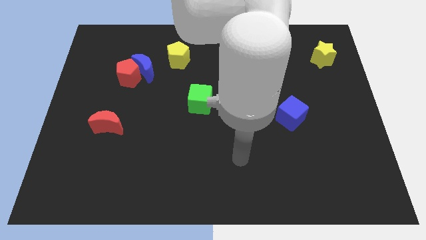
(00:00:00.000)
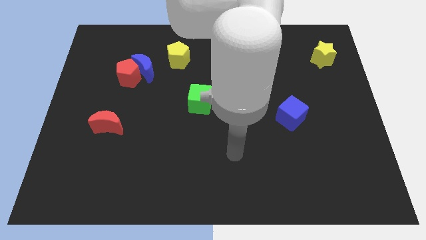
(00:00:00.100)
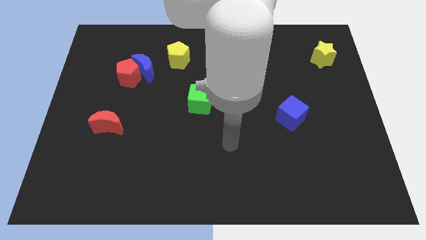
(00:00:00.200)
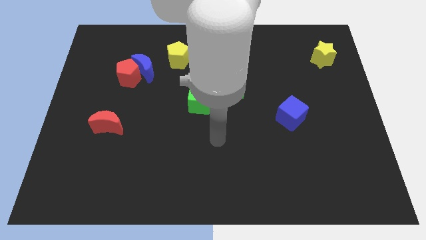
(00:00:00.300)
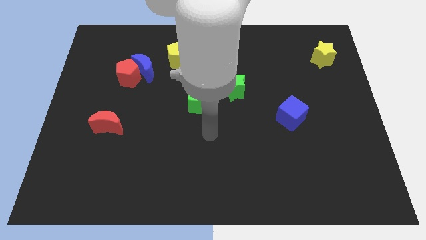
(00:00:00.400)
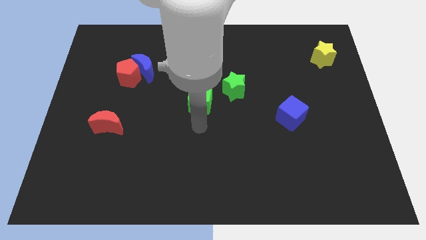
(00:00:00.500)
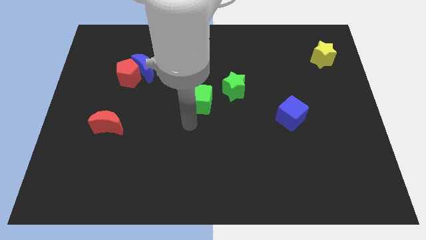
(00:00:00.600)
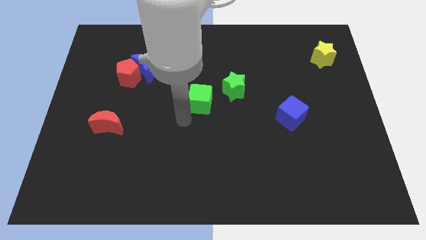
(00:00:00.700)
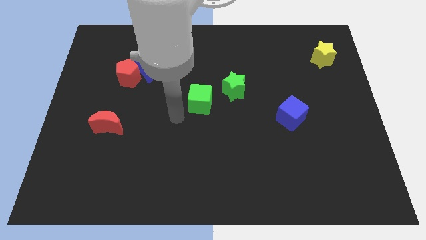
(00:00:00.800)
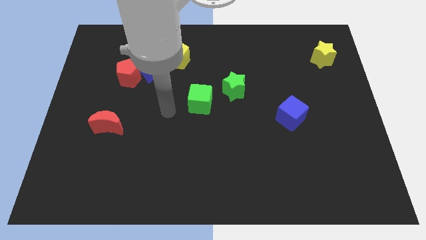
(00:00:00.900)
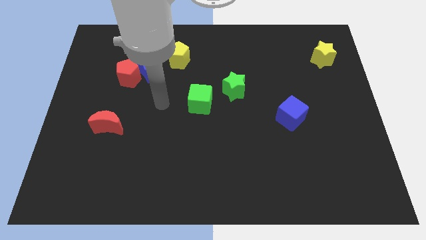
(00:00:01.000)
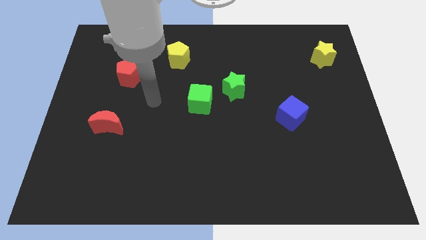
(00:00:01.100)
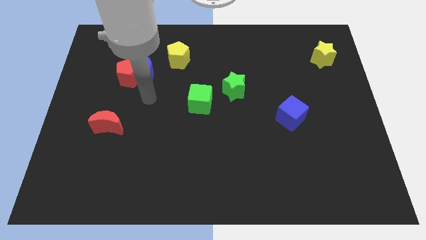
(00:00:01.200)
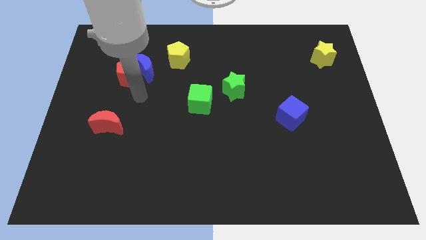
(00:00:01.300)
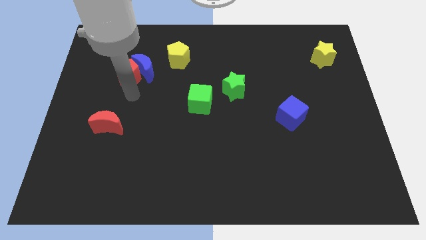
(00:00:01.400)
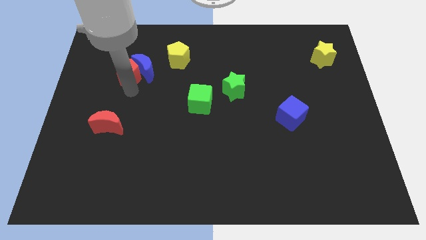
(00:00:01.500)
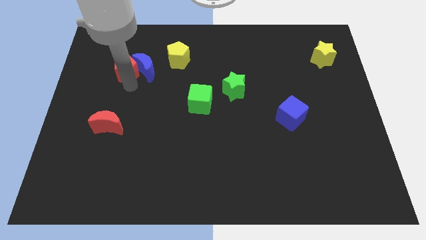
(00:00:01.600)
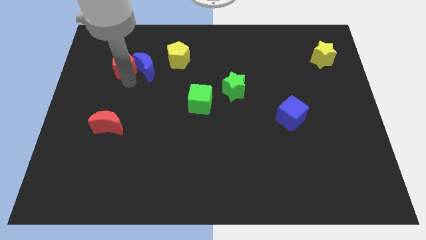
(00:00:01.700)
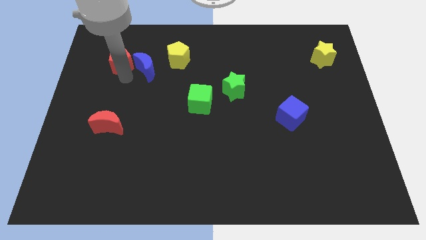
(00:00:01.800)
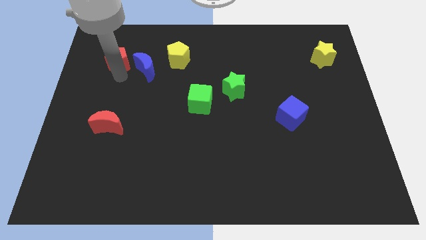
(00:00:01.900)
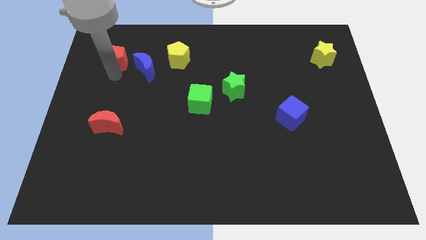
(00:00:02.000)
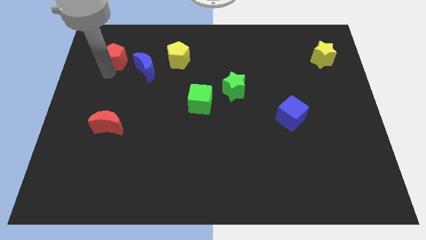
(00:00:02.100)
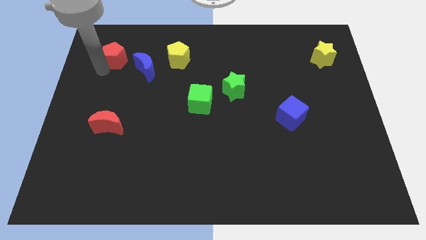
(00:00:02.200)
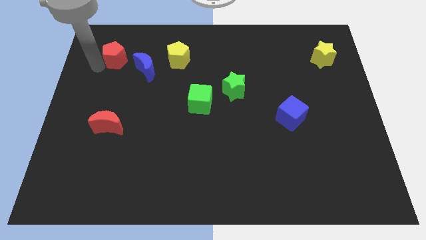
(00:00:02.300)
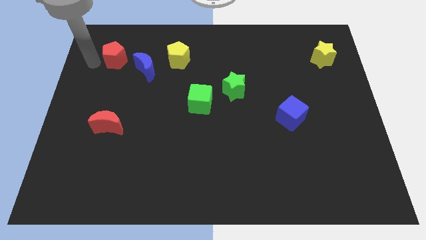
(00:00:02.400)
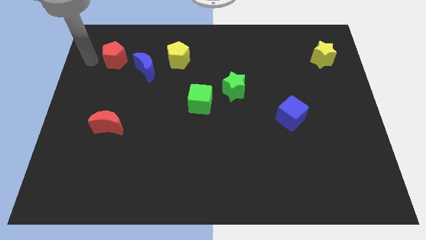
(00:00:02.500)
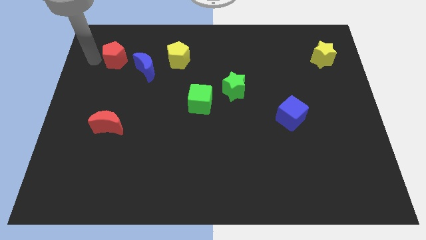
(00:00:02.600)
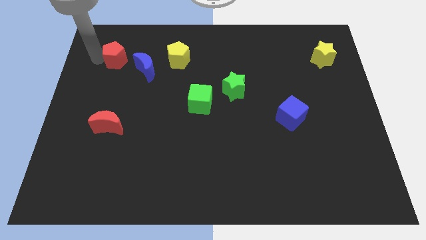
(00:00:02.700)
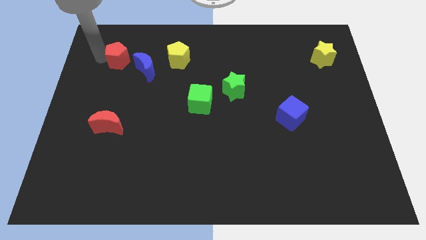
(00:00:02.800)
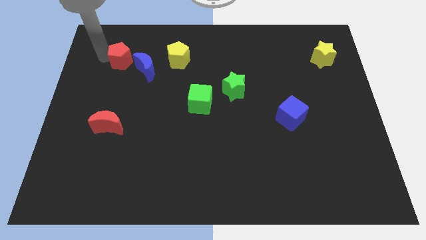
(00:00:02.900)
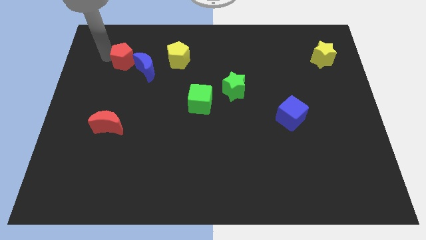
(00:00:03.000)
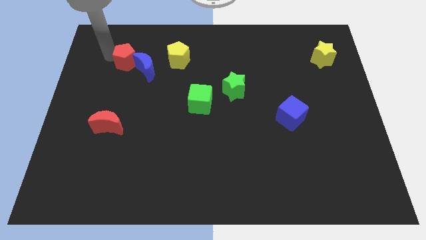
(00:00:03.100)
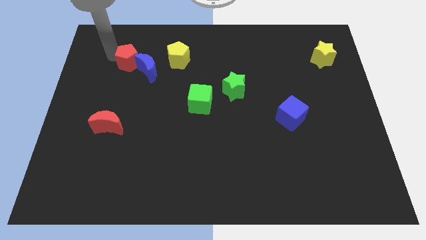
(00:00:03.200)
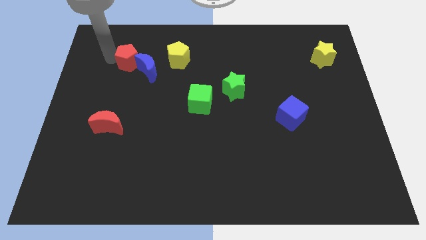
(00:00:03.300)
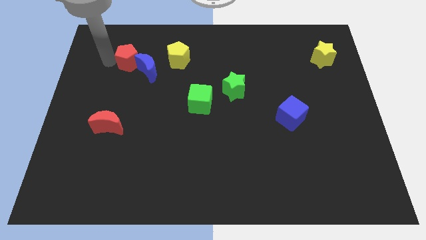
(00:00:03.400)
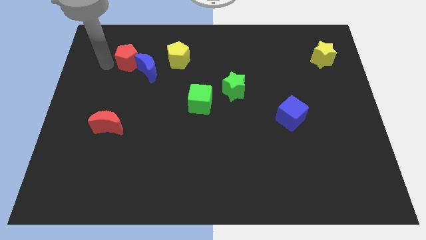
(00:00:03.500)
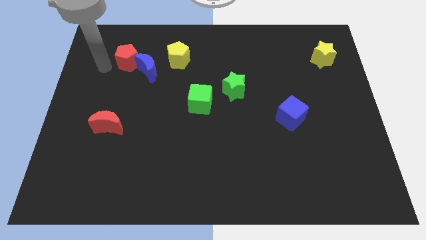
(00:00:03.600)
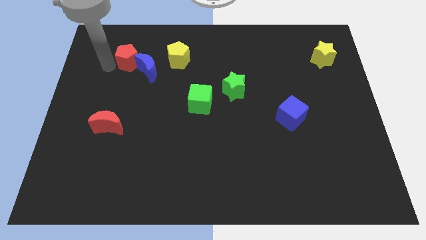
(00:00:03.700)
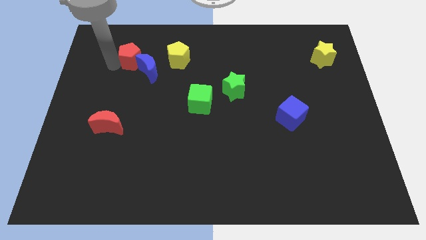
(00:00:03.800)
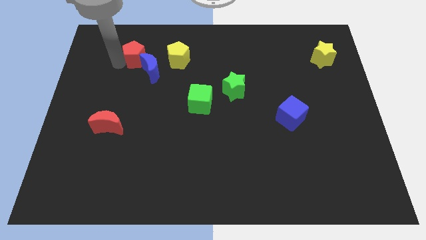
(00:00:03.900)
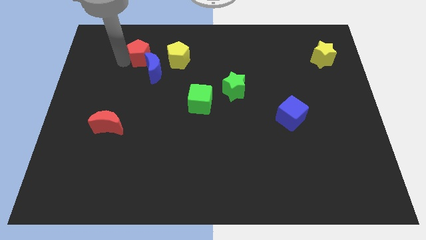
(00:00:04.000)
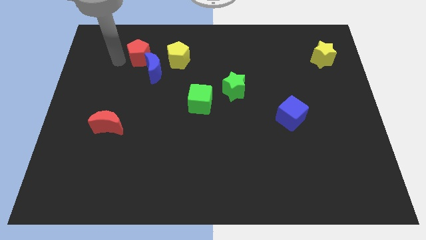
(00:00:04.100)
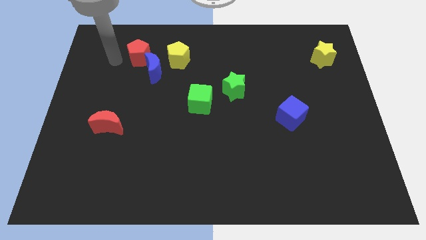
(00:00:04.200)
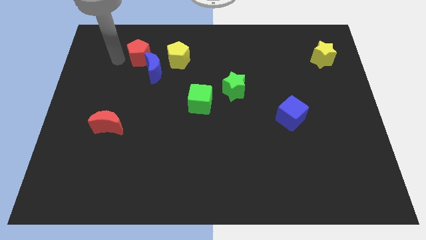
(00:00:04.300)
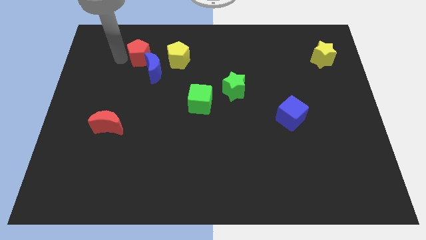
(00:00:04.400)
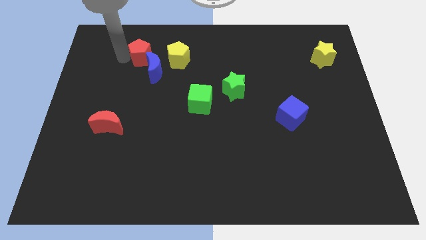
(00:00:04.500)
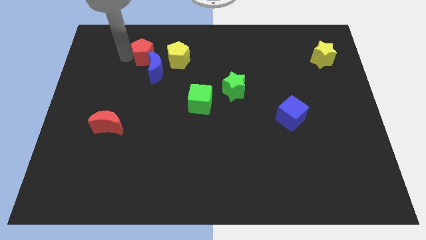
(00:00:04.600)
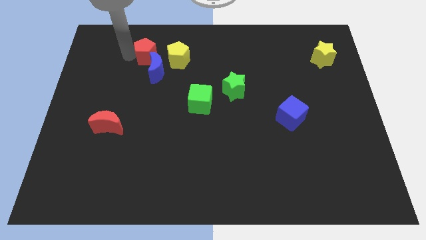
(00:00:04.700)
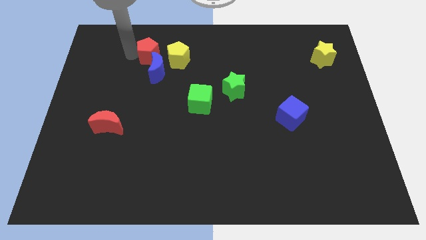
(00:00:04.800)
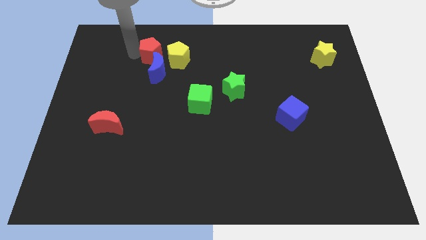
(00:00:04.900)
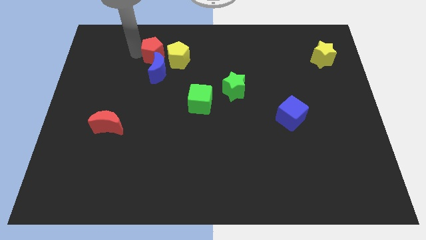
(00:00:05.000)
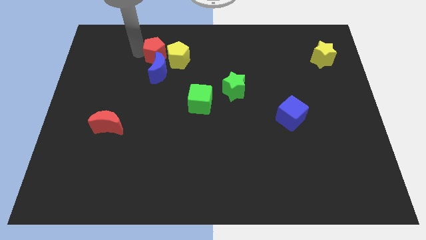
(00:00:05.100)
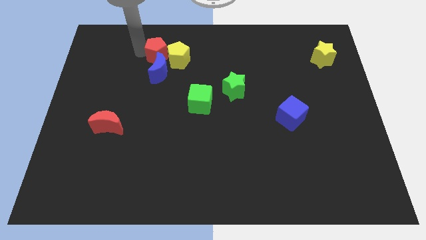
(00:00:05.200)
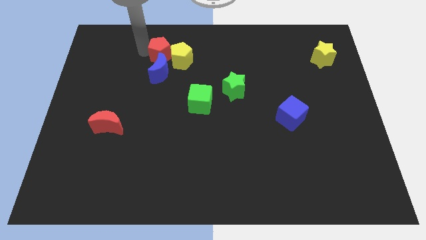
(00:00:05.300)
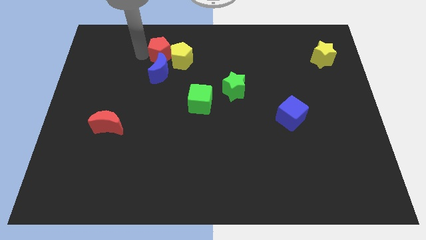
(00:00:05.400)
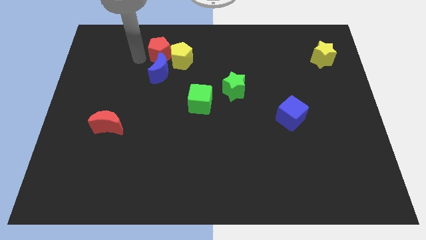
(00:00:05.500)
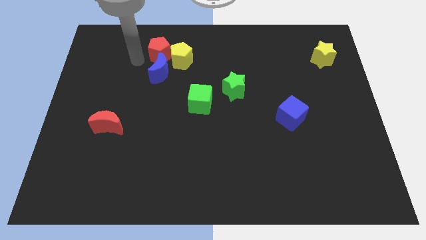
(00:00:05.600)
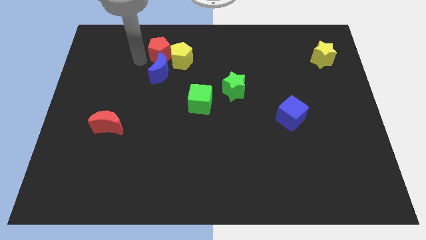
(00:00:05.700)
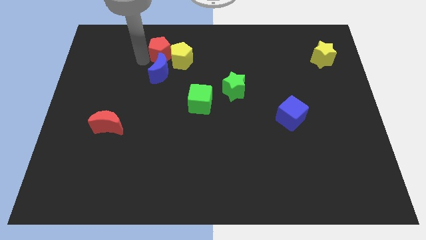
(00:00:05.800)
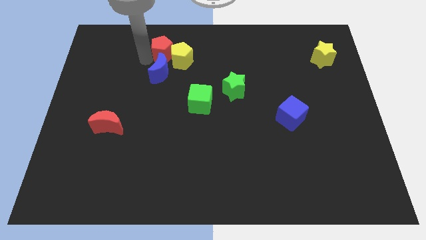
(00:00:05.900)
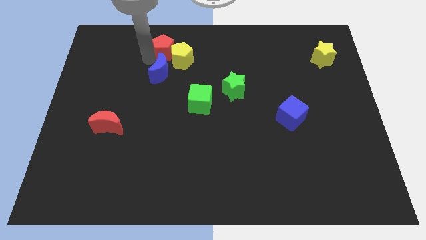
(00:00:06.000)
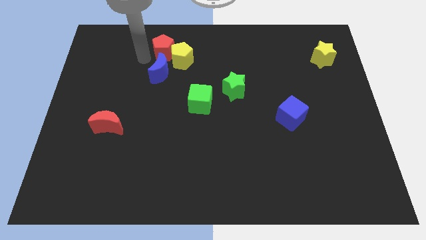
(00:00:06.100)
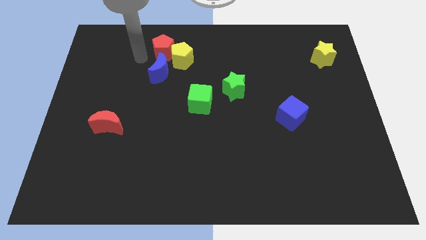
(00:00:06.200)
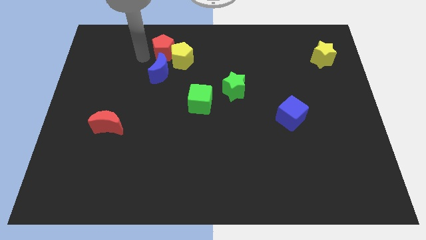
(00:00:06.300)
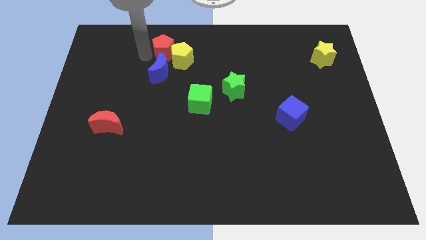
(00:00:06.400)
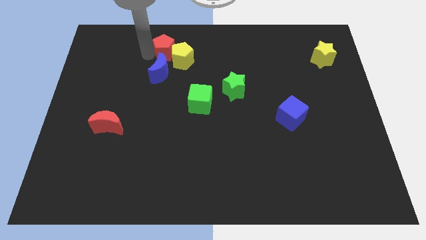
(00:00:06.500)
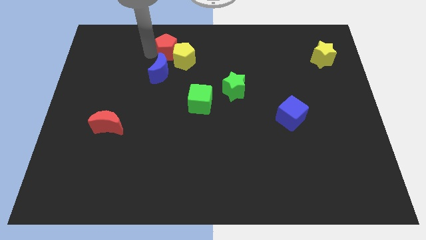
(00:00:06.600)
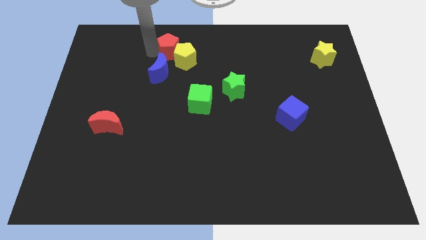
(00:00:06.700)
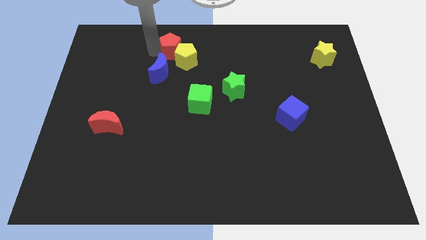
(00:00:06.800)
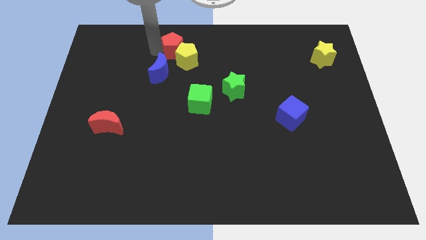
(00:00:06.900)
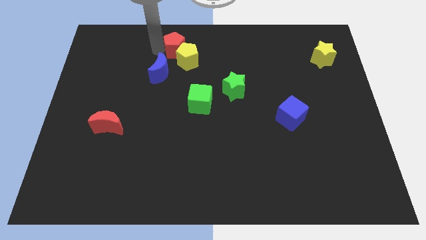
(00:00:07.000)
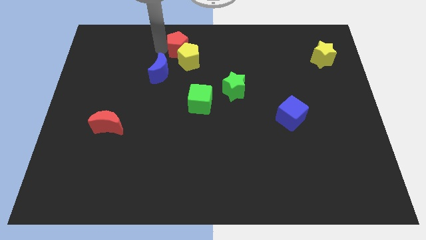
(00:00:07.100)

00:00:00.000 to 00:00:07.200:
put the red pentagon to the towards your base

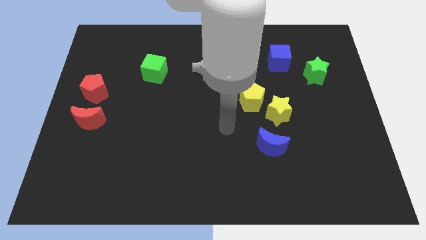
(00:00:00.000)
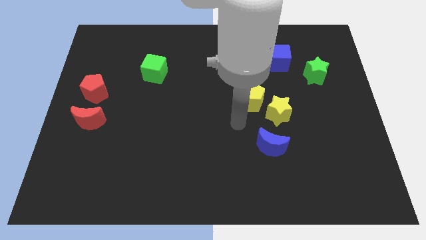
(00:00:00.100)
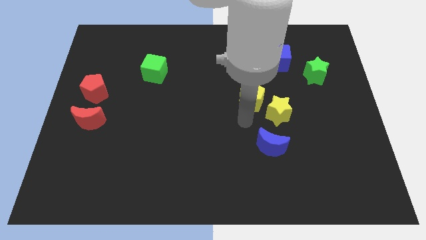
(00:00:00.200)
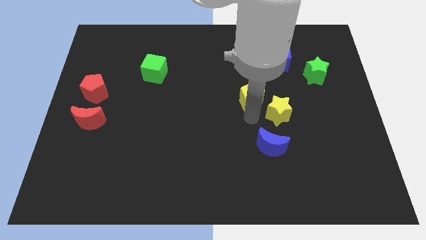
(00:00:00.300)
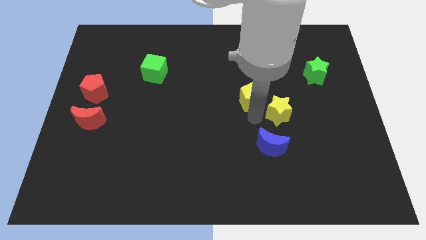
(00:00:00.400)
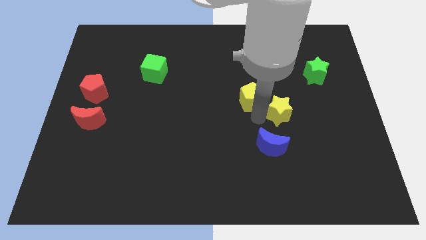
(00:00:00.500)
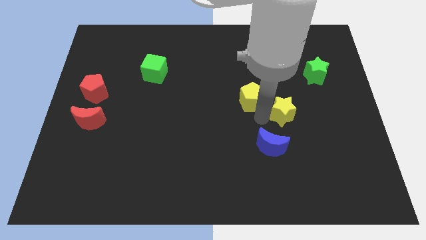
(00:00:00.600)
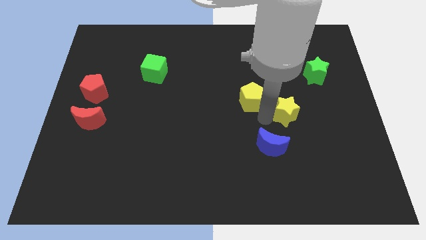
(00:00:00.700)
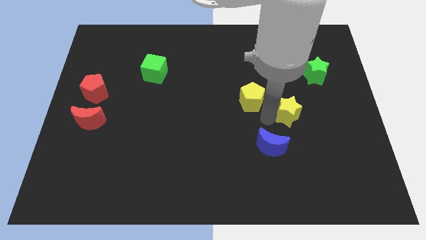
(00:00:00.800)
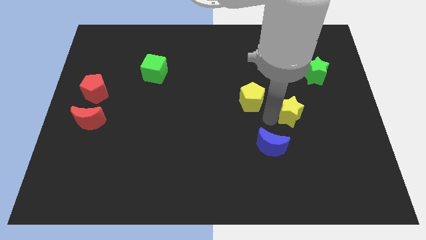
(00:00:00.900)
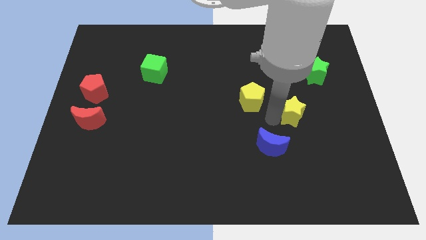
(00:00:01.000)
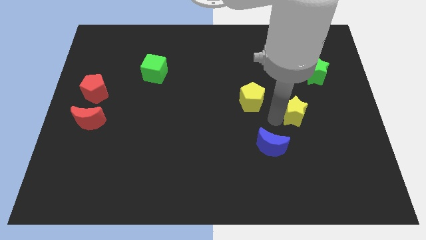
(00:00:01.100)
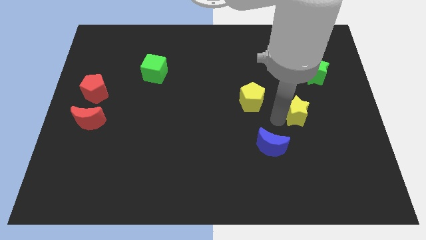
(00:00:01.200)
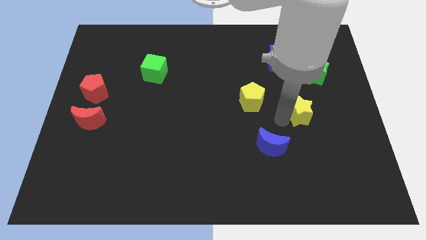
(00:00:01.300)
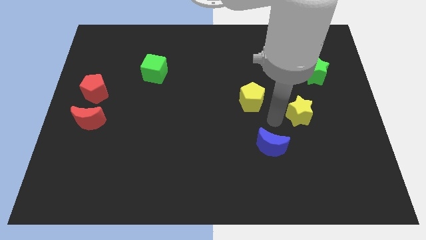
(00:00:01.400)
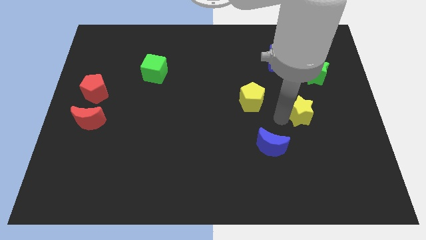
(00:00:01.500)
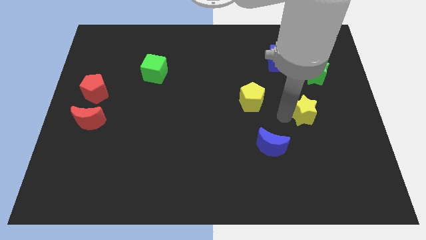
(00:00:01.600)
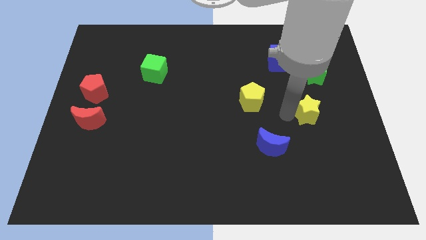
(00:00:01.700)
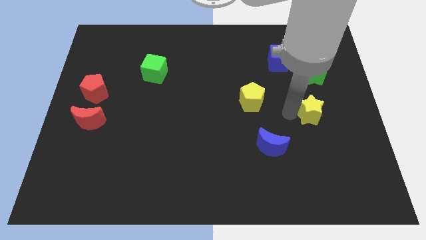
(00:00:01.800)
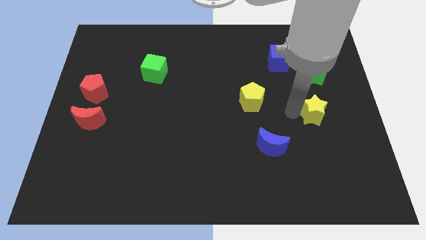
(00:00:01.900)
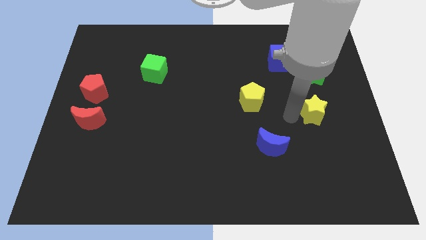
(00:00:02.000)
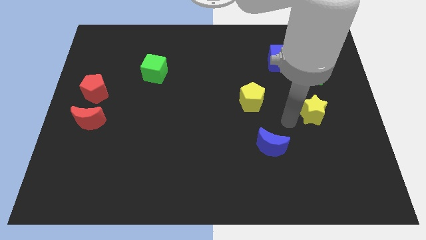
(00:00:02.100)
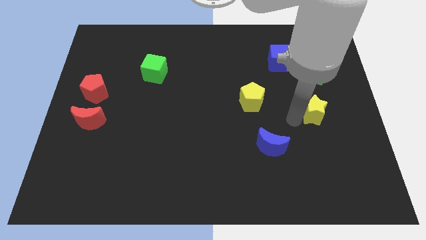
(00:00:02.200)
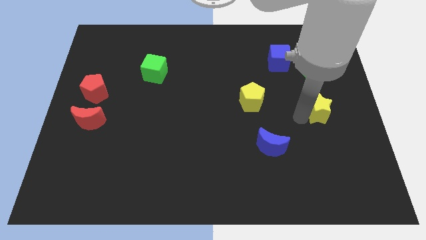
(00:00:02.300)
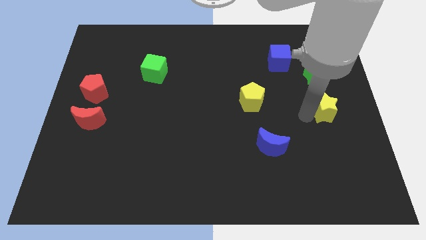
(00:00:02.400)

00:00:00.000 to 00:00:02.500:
move the yellow star to the right side of the board
